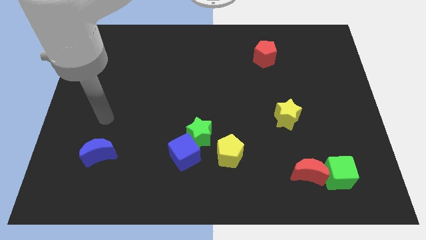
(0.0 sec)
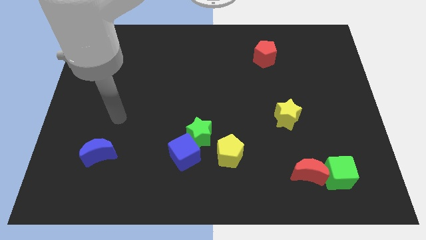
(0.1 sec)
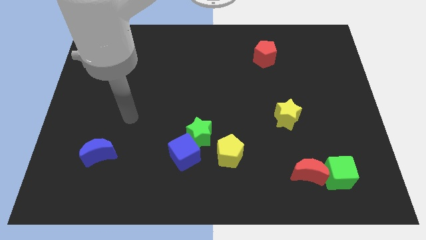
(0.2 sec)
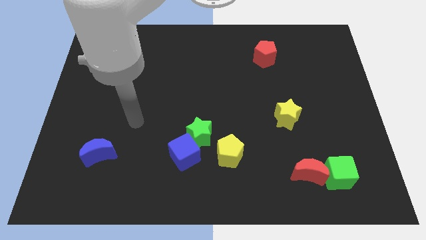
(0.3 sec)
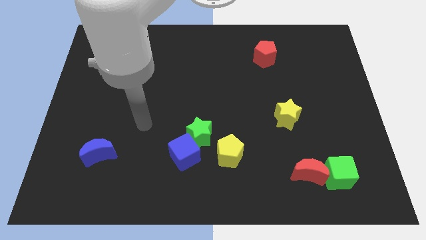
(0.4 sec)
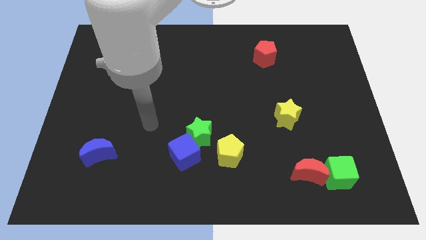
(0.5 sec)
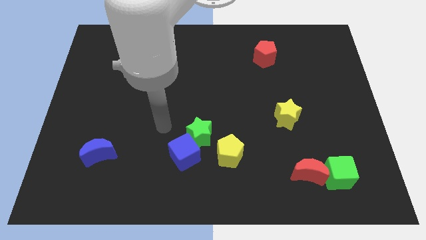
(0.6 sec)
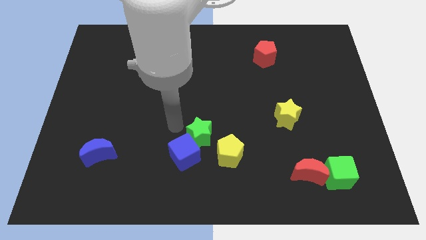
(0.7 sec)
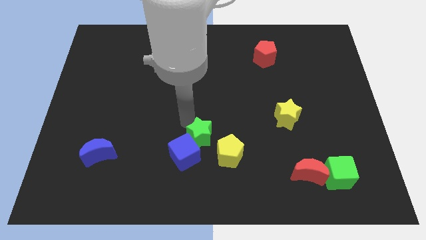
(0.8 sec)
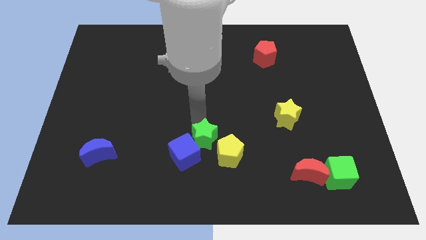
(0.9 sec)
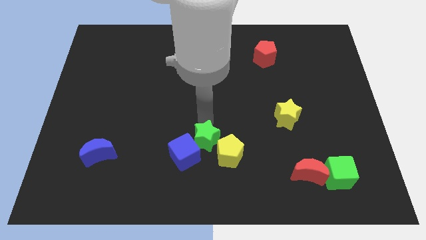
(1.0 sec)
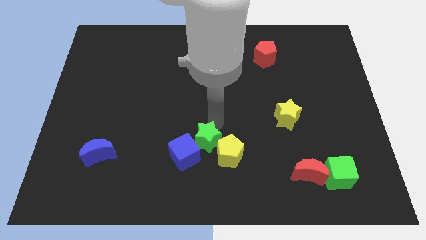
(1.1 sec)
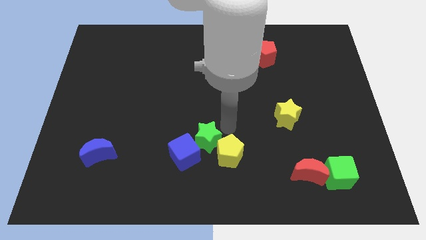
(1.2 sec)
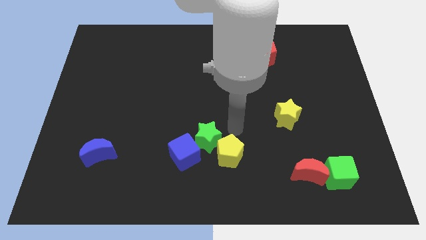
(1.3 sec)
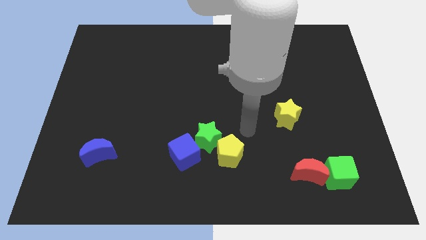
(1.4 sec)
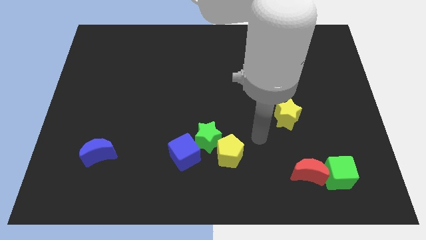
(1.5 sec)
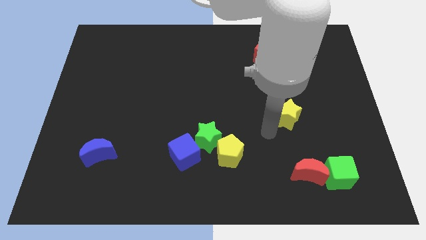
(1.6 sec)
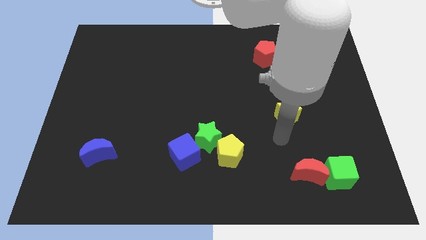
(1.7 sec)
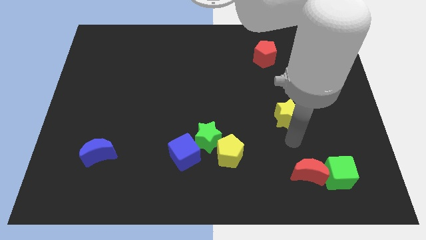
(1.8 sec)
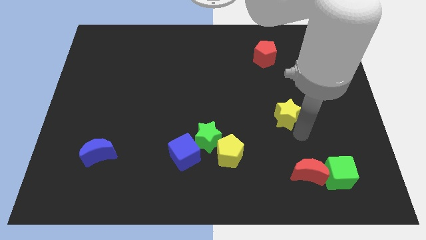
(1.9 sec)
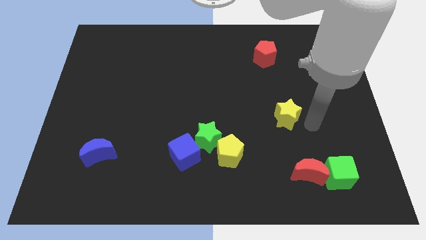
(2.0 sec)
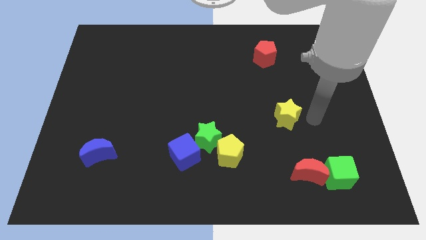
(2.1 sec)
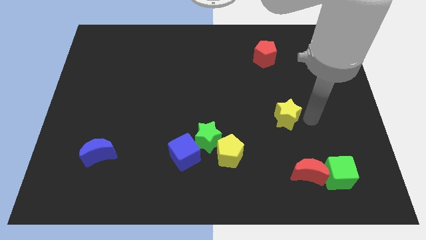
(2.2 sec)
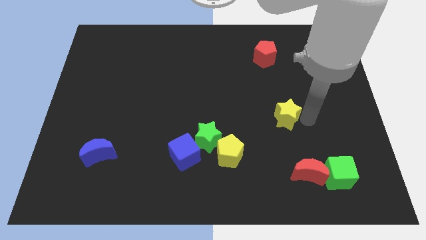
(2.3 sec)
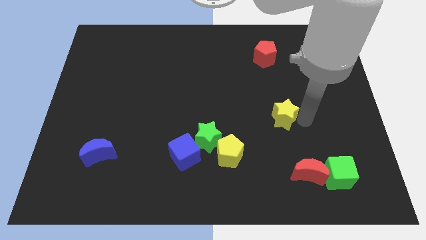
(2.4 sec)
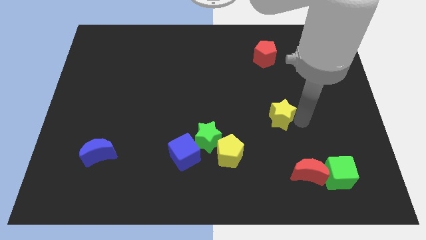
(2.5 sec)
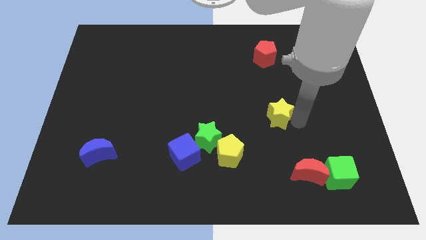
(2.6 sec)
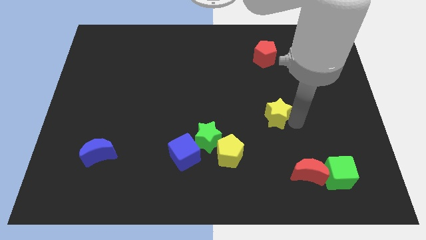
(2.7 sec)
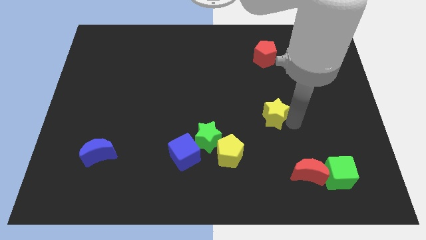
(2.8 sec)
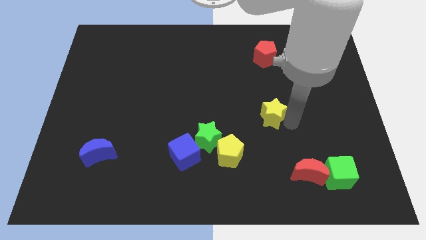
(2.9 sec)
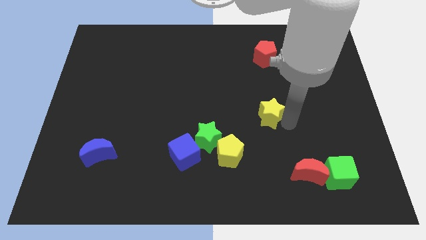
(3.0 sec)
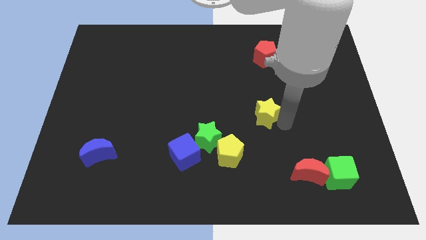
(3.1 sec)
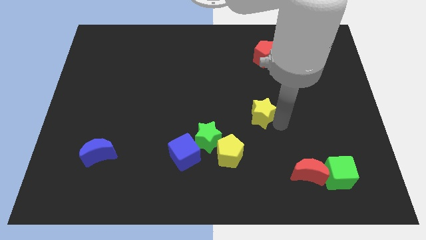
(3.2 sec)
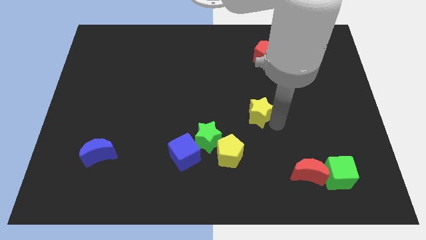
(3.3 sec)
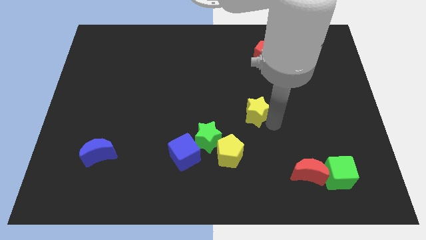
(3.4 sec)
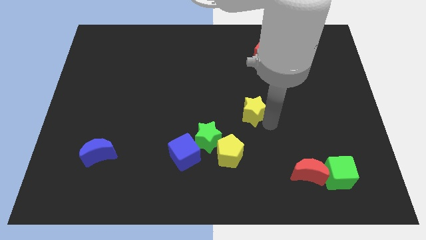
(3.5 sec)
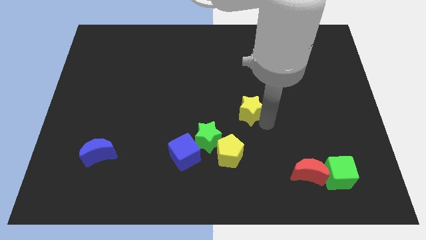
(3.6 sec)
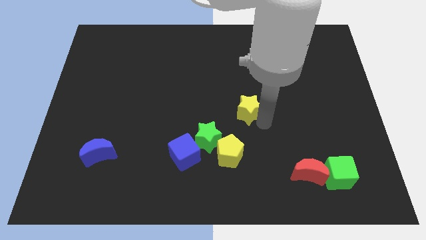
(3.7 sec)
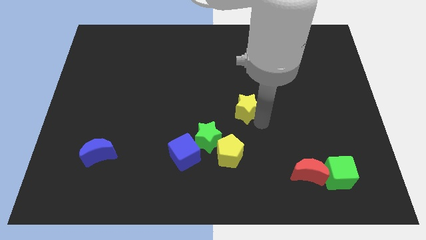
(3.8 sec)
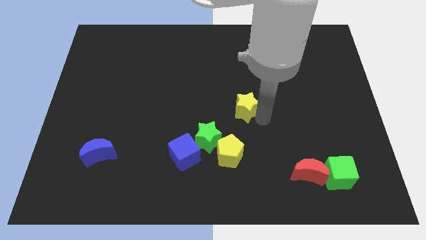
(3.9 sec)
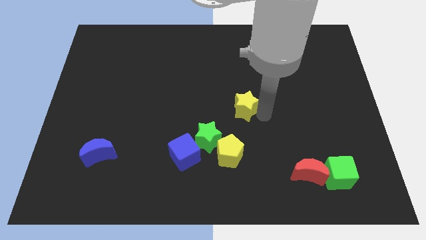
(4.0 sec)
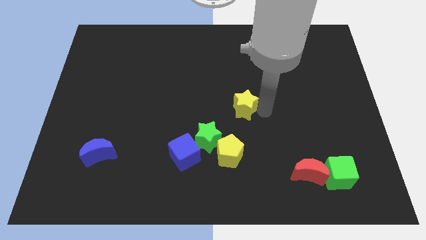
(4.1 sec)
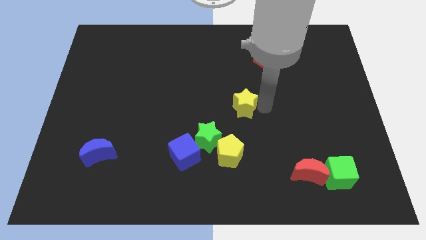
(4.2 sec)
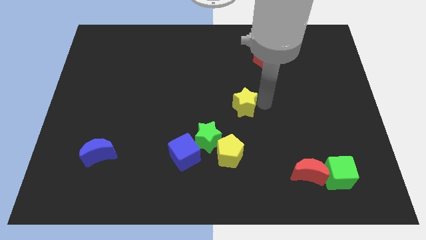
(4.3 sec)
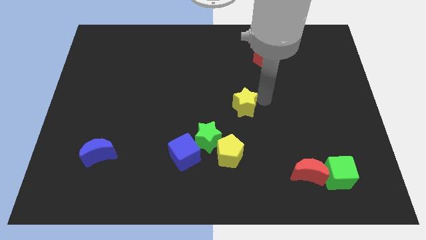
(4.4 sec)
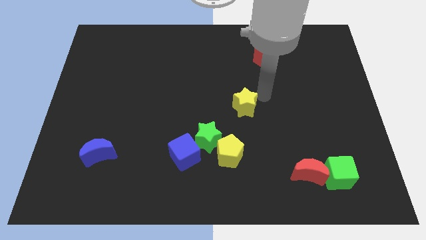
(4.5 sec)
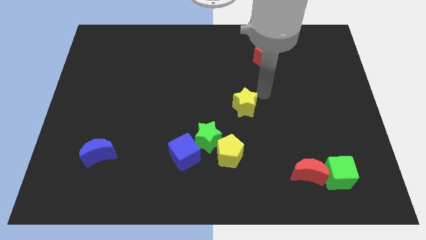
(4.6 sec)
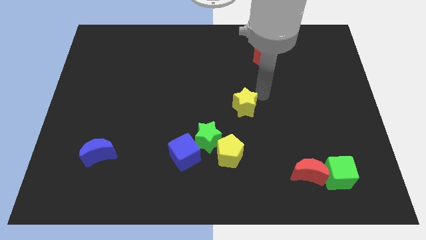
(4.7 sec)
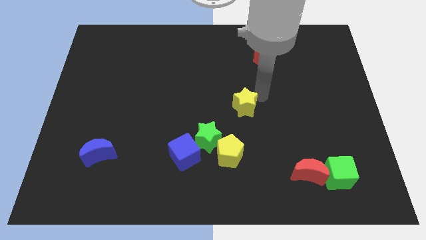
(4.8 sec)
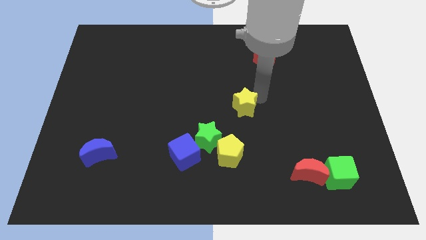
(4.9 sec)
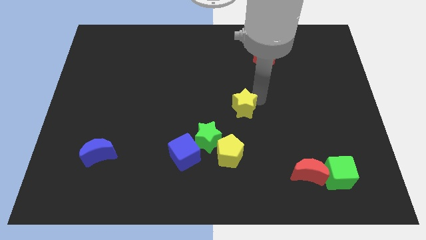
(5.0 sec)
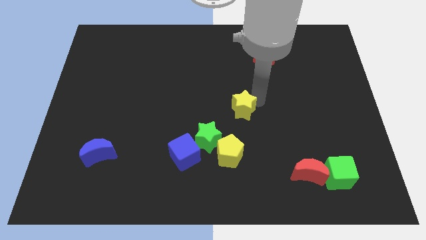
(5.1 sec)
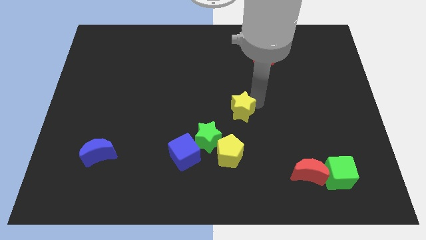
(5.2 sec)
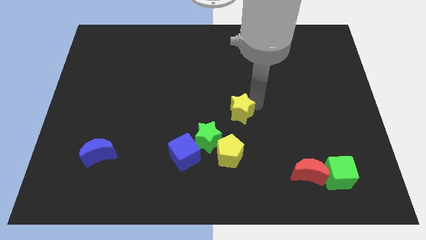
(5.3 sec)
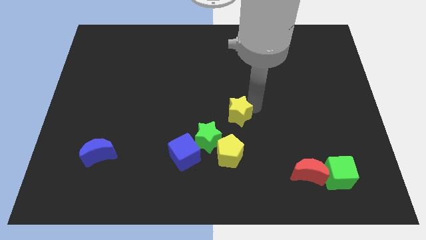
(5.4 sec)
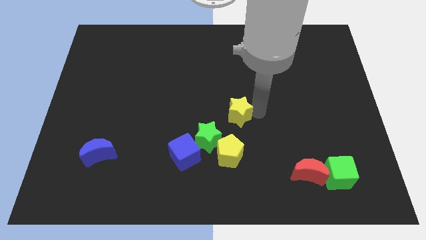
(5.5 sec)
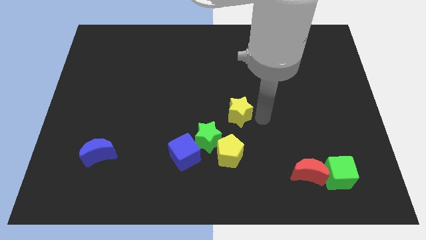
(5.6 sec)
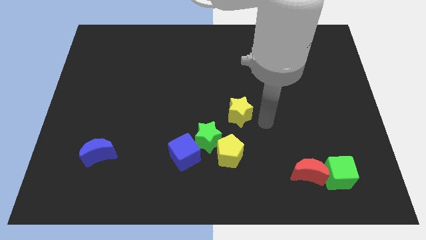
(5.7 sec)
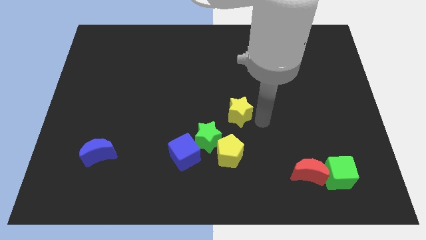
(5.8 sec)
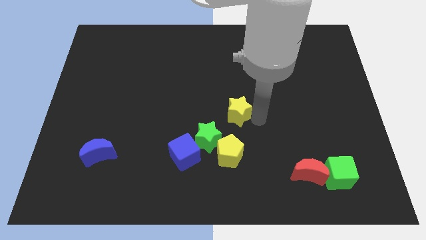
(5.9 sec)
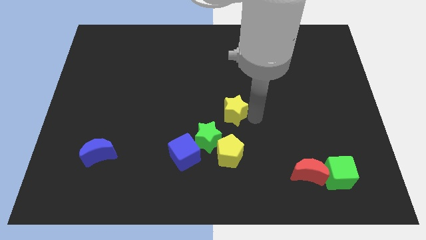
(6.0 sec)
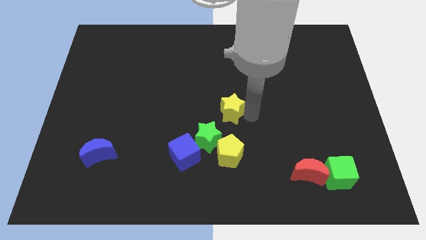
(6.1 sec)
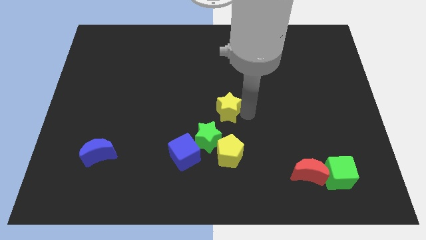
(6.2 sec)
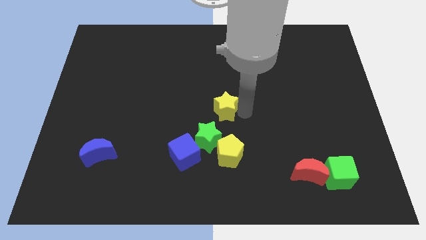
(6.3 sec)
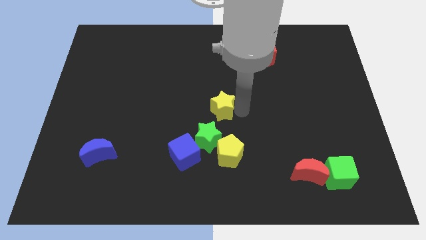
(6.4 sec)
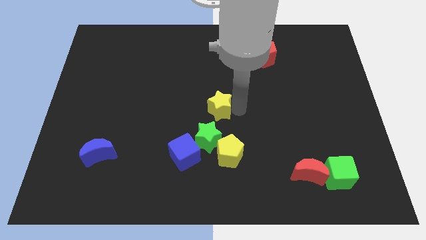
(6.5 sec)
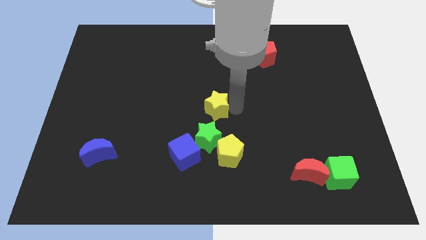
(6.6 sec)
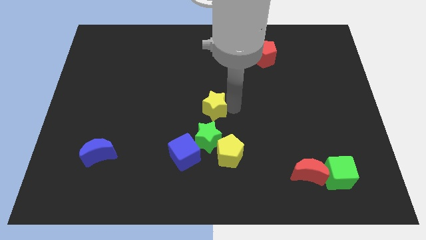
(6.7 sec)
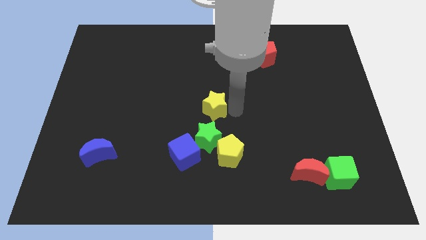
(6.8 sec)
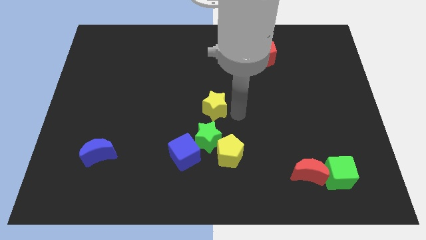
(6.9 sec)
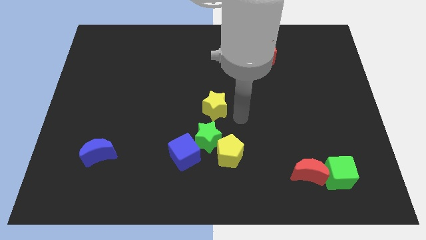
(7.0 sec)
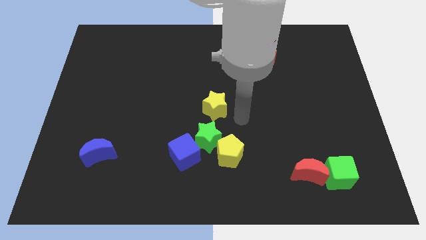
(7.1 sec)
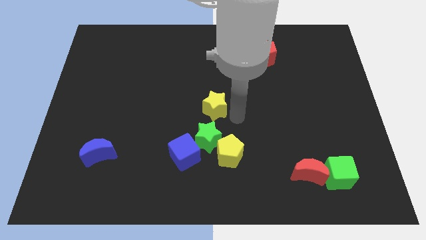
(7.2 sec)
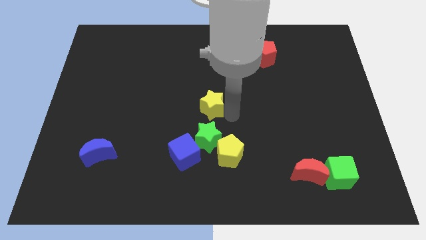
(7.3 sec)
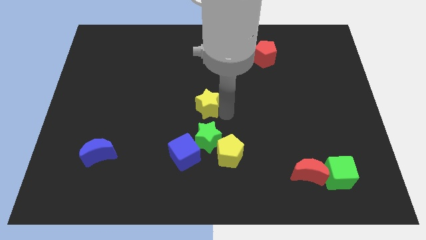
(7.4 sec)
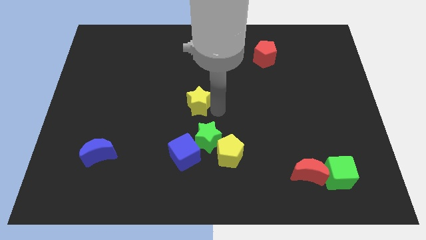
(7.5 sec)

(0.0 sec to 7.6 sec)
push the yellow star to the left

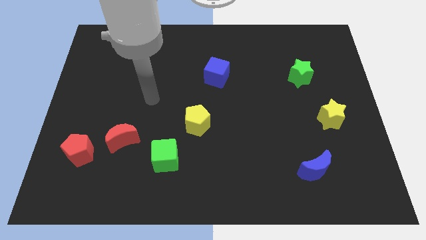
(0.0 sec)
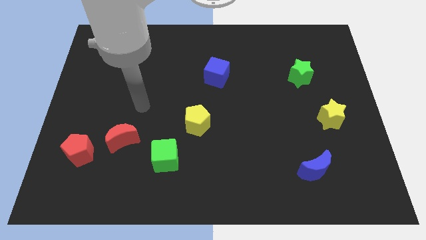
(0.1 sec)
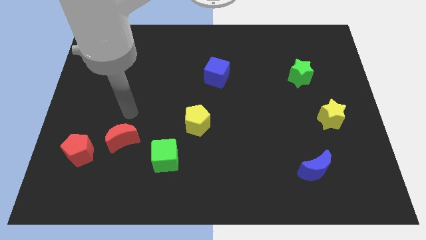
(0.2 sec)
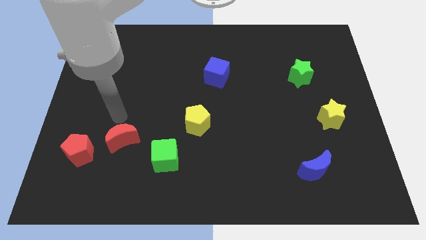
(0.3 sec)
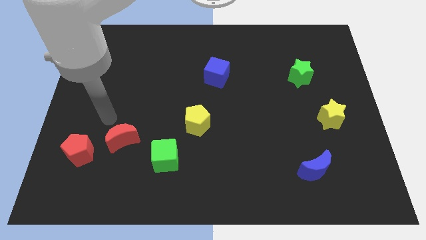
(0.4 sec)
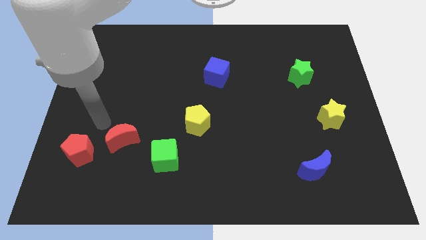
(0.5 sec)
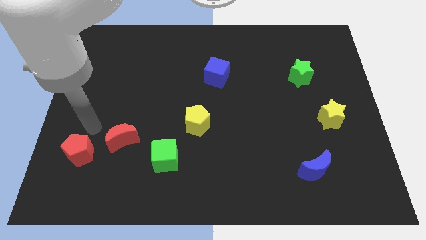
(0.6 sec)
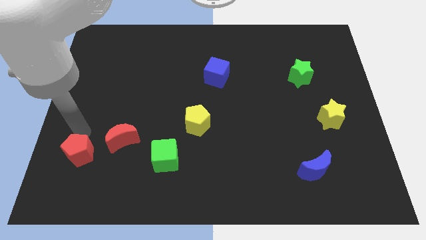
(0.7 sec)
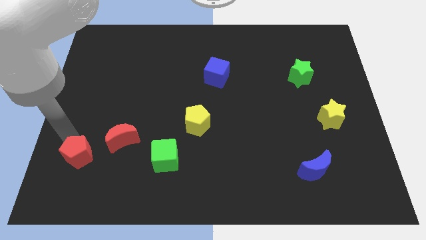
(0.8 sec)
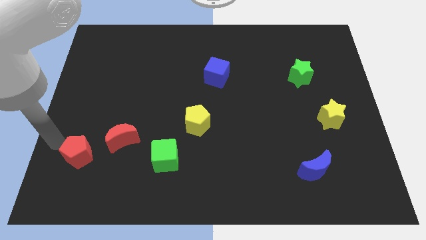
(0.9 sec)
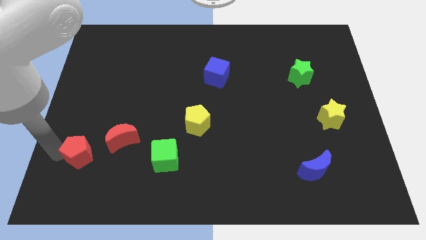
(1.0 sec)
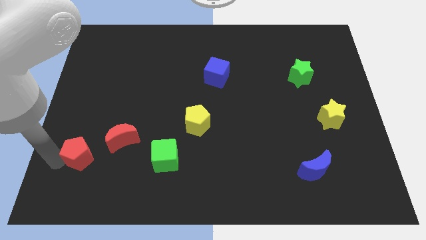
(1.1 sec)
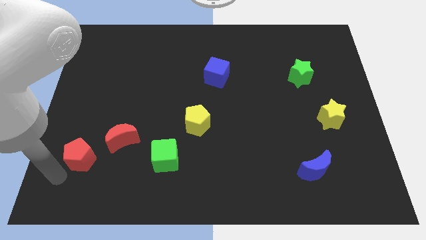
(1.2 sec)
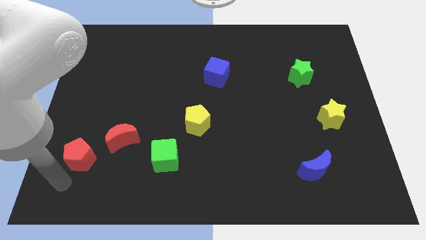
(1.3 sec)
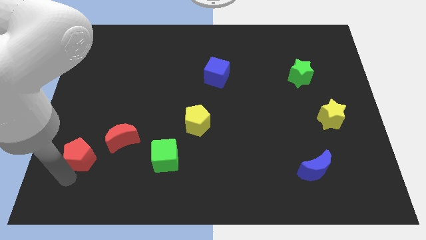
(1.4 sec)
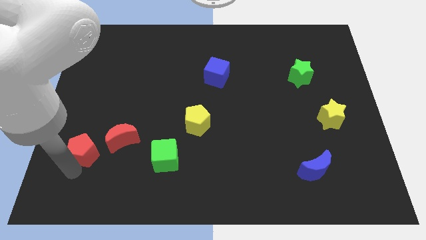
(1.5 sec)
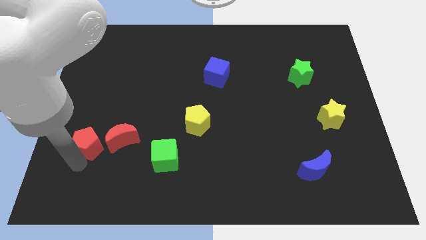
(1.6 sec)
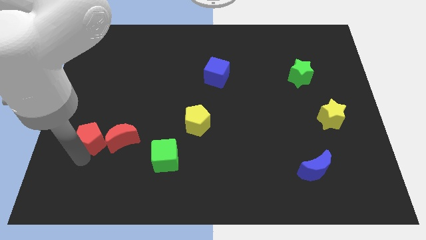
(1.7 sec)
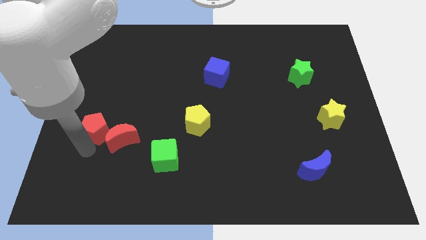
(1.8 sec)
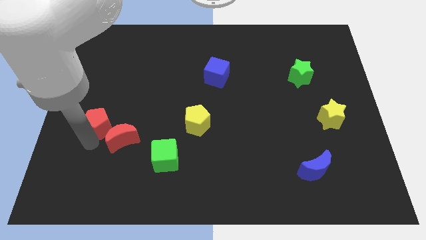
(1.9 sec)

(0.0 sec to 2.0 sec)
slide the red pentagon up and then right a little bit
